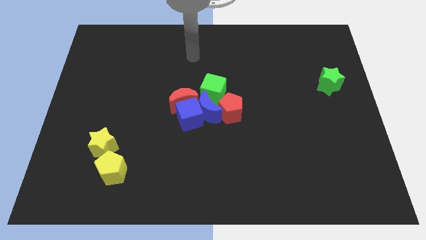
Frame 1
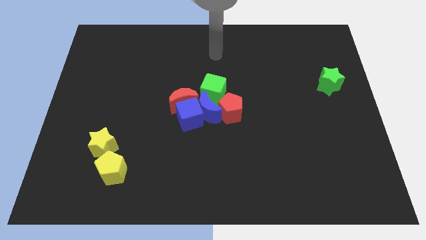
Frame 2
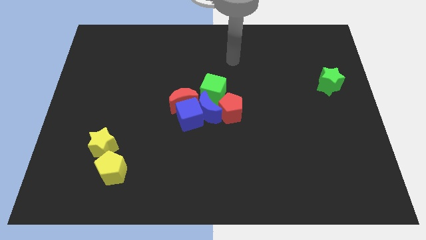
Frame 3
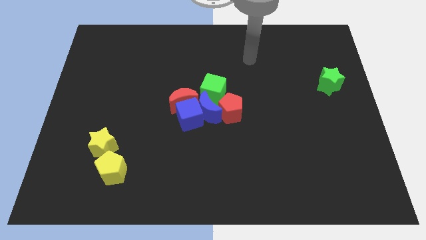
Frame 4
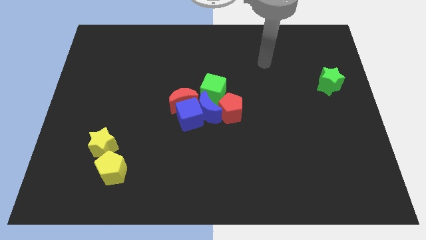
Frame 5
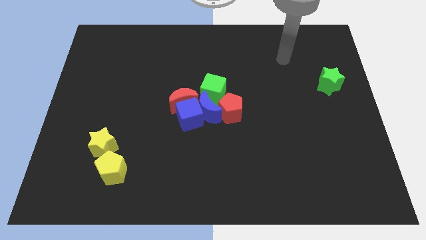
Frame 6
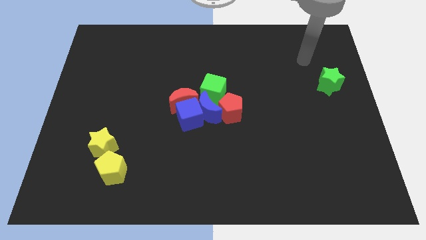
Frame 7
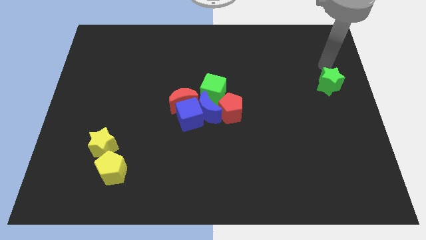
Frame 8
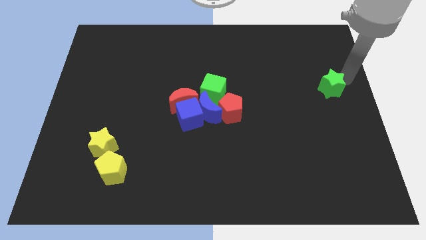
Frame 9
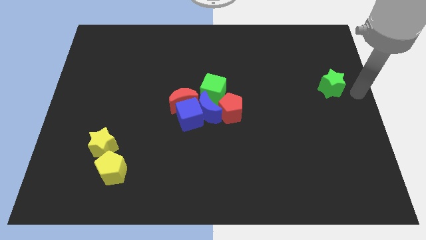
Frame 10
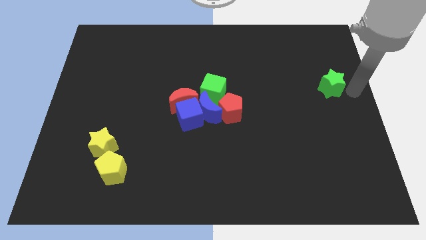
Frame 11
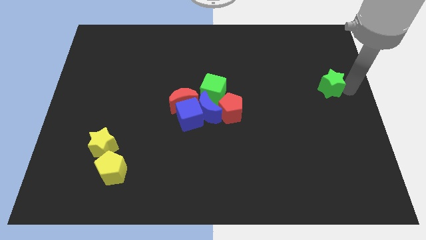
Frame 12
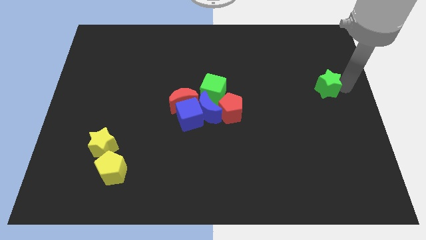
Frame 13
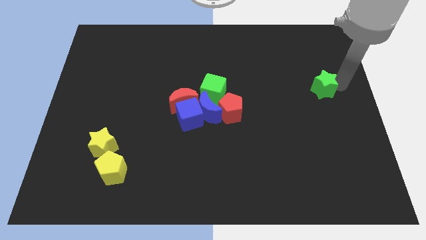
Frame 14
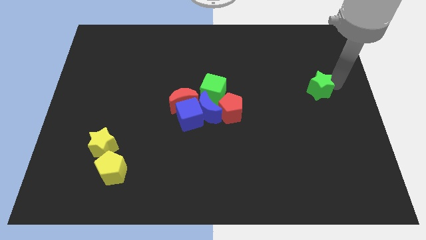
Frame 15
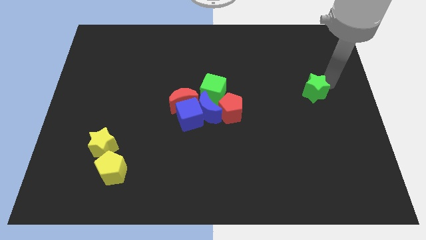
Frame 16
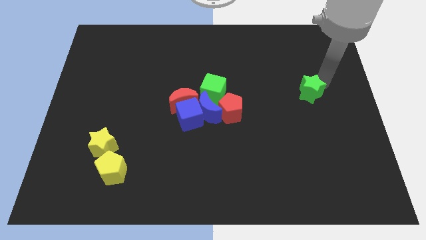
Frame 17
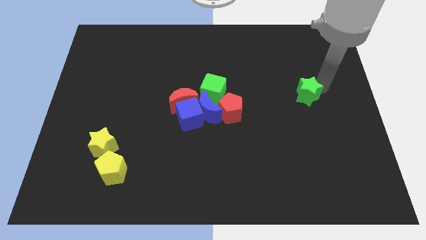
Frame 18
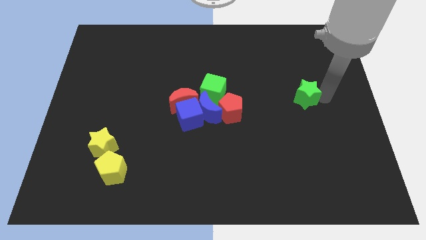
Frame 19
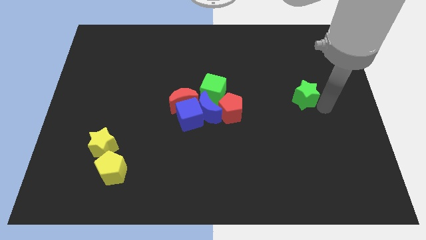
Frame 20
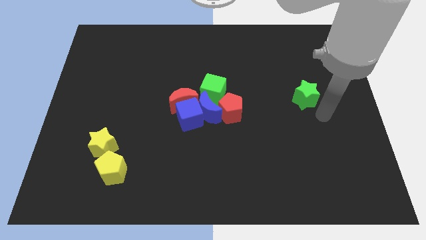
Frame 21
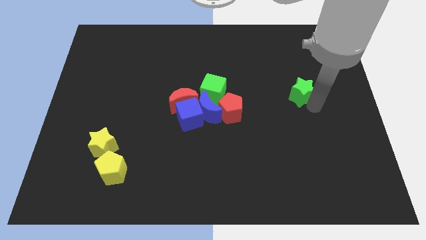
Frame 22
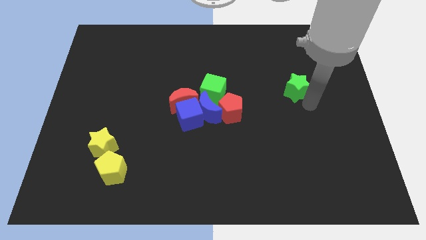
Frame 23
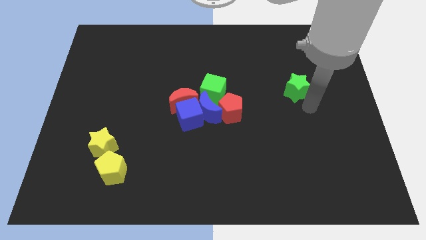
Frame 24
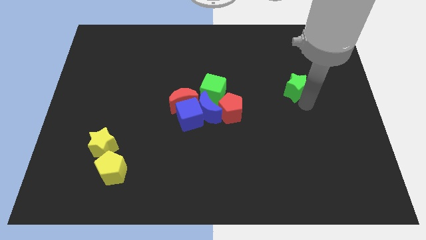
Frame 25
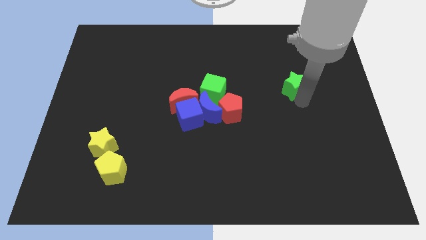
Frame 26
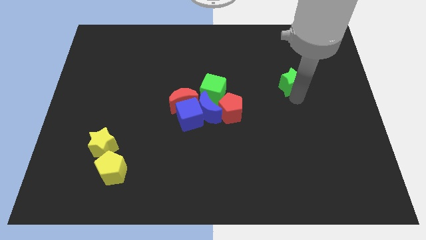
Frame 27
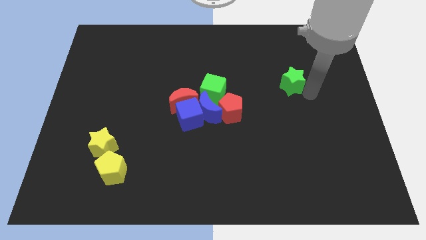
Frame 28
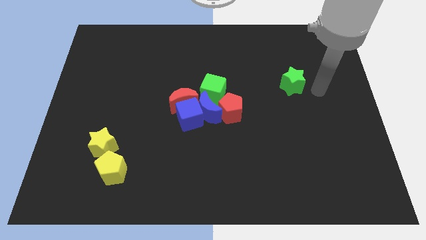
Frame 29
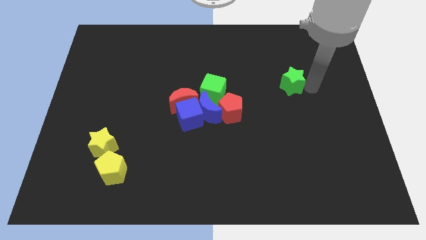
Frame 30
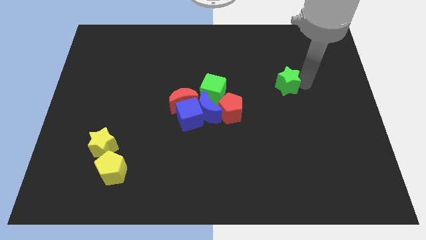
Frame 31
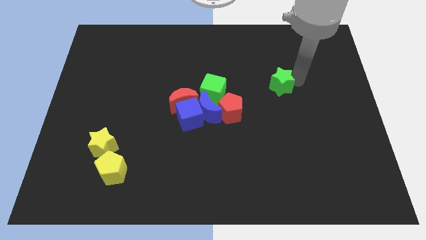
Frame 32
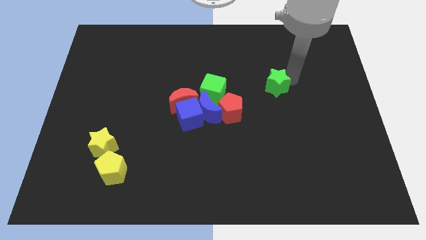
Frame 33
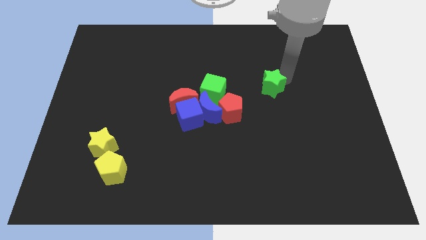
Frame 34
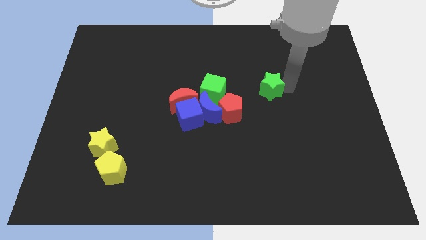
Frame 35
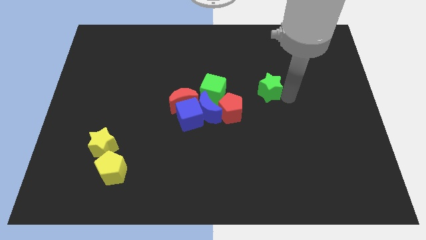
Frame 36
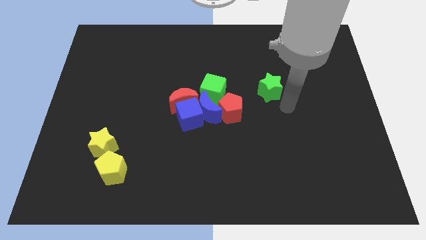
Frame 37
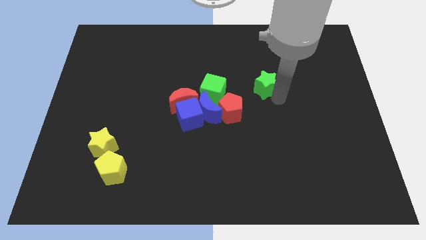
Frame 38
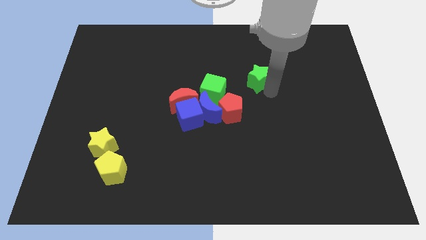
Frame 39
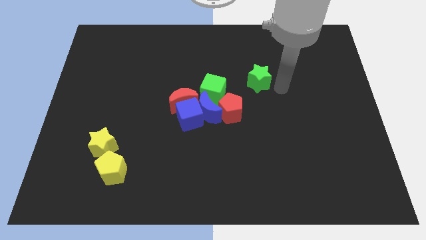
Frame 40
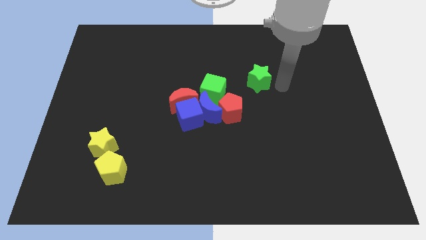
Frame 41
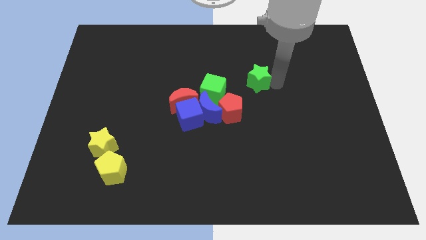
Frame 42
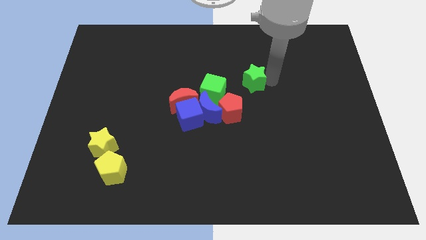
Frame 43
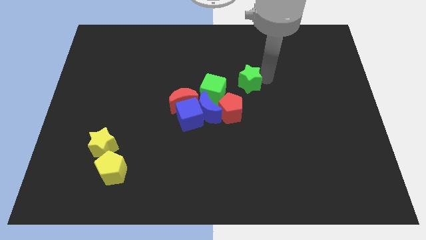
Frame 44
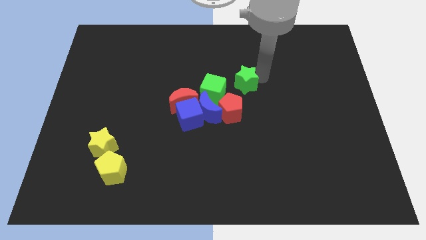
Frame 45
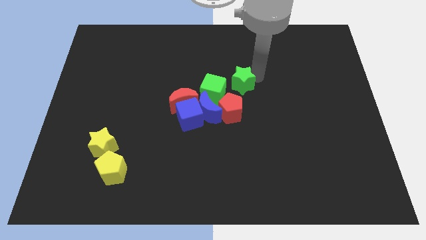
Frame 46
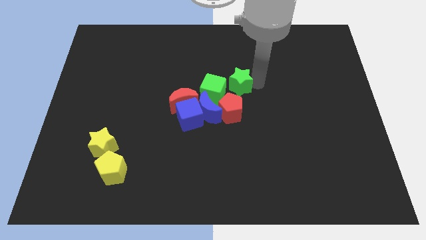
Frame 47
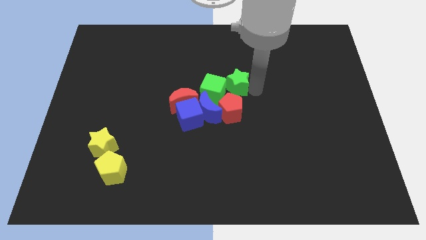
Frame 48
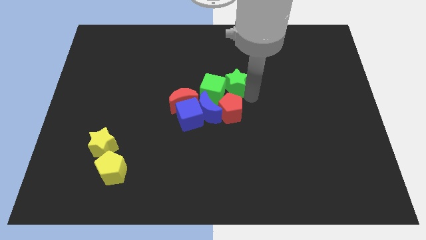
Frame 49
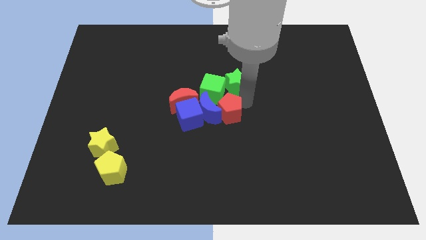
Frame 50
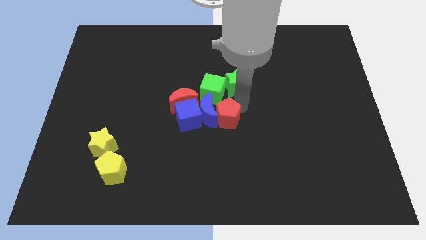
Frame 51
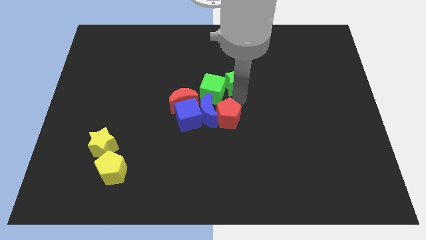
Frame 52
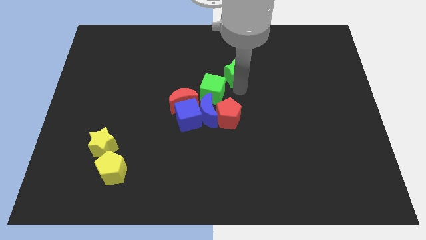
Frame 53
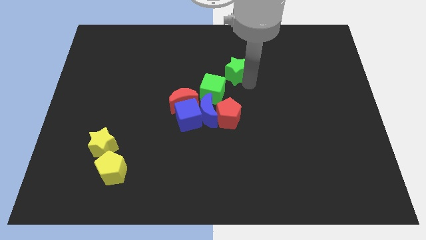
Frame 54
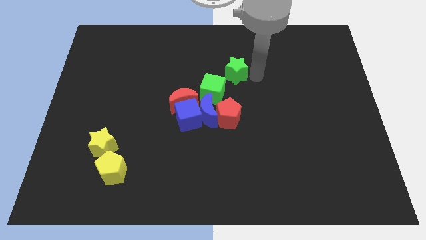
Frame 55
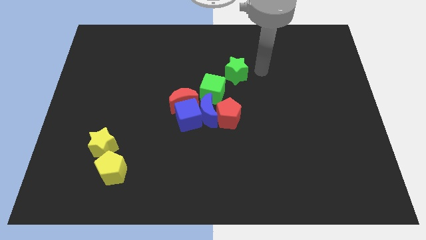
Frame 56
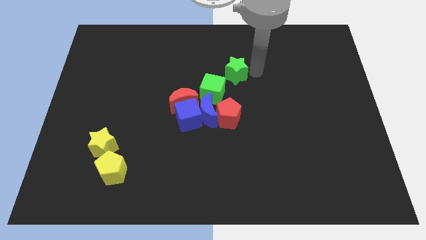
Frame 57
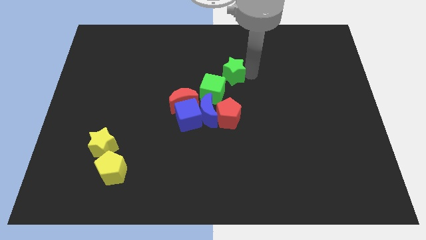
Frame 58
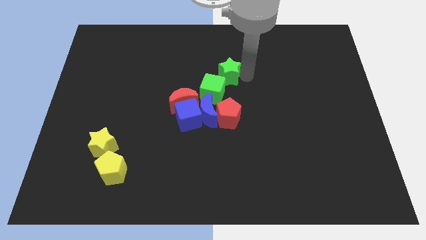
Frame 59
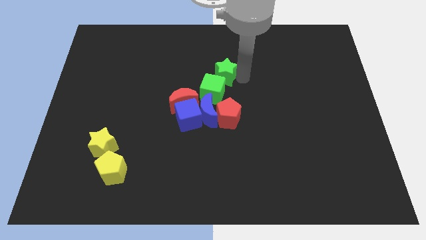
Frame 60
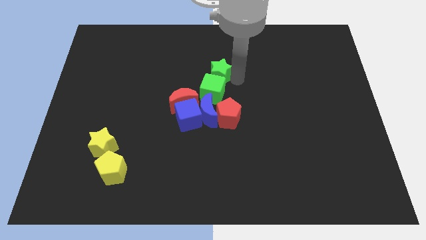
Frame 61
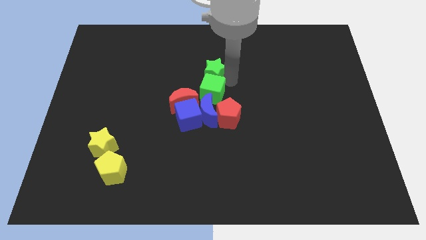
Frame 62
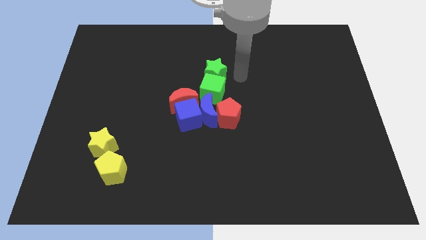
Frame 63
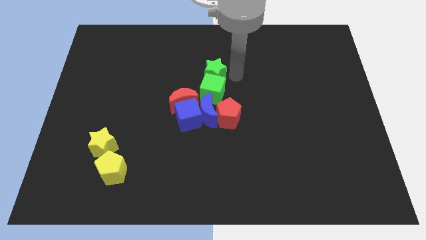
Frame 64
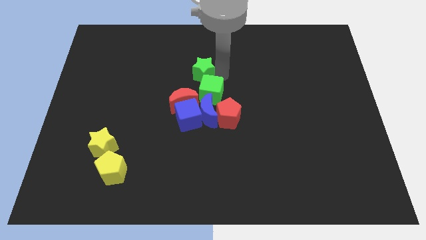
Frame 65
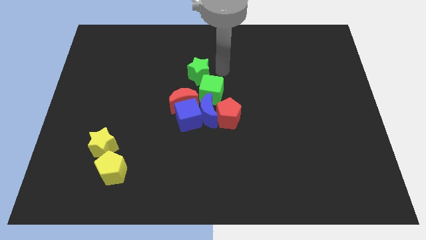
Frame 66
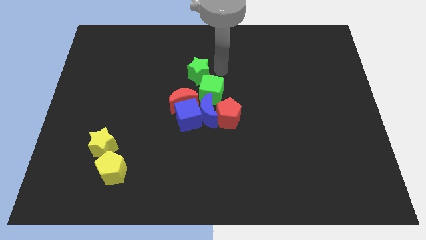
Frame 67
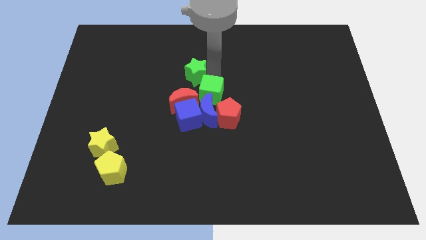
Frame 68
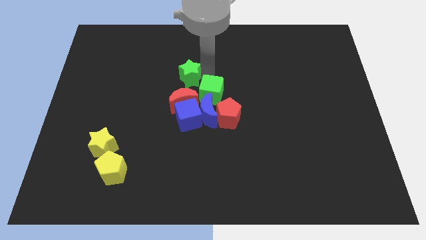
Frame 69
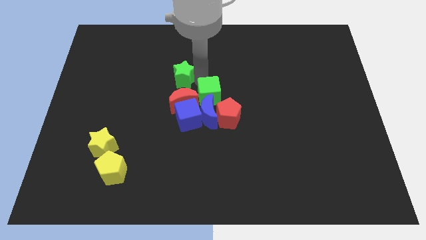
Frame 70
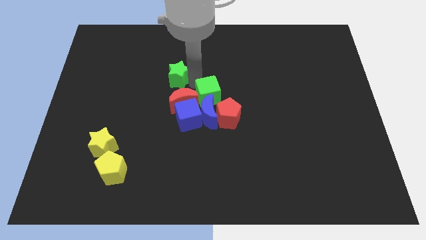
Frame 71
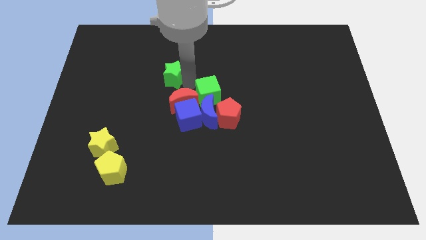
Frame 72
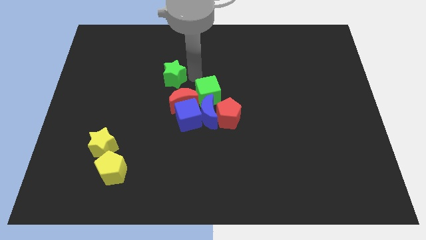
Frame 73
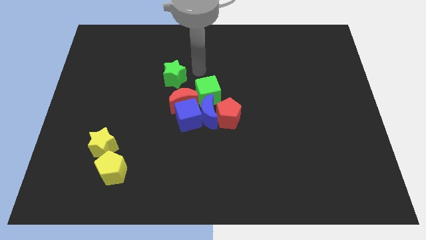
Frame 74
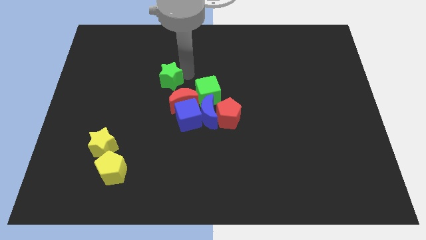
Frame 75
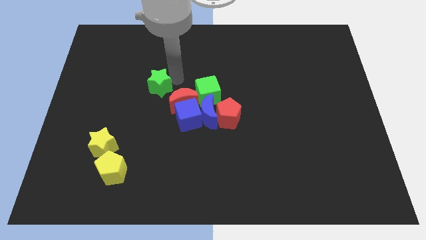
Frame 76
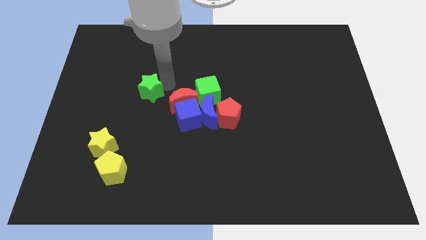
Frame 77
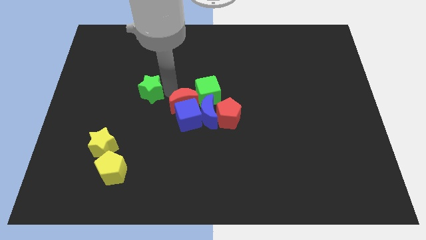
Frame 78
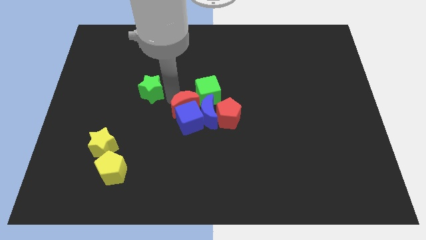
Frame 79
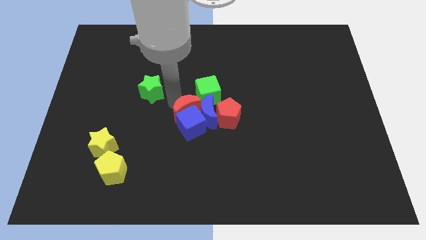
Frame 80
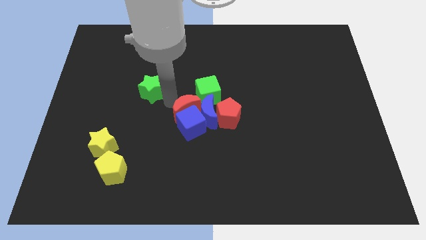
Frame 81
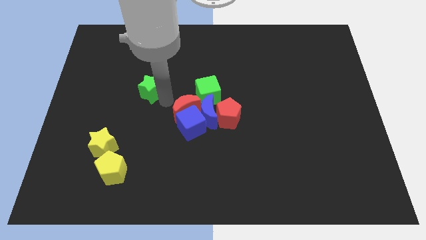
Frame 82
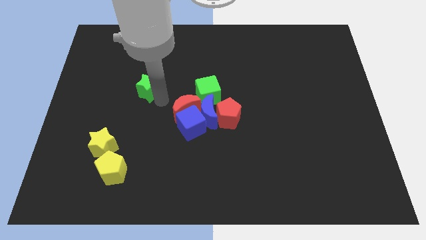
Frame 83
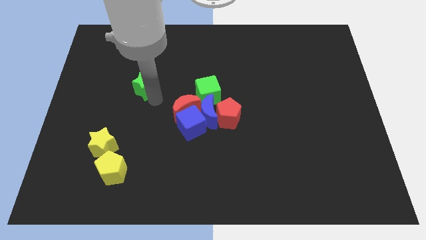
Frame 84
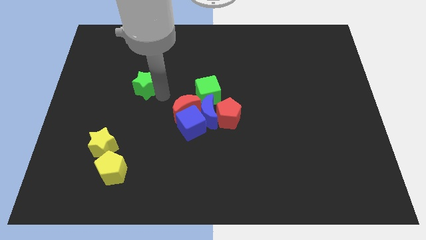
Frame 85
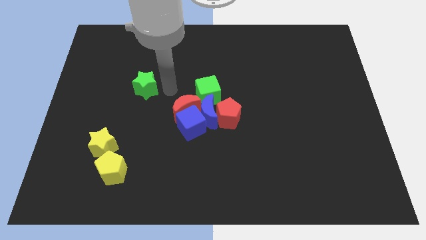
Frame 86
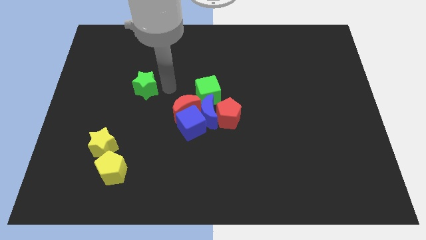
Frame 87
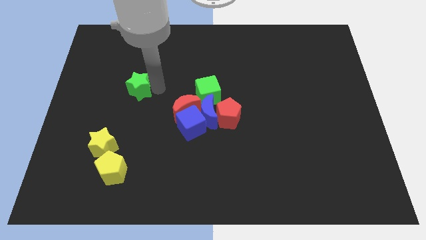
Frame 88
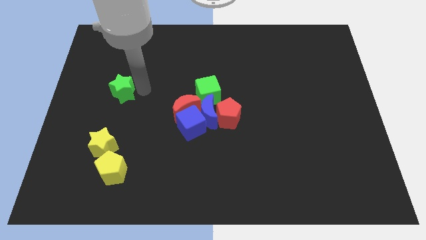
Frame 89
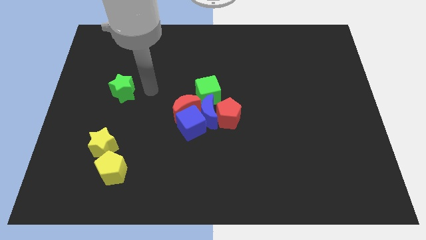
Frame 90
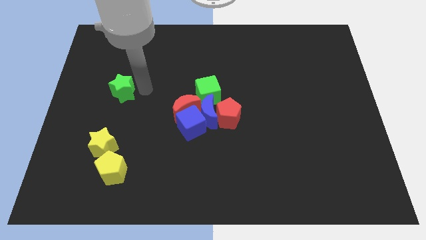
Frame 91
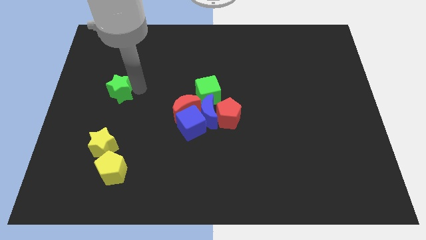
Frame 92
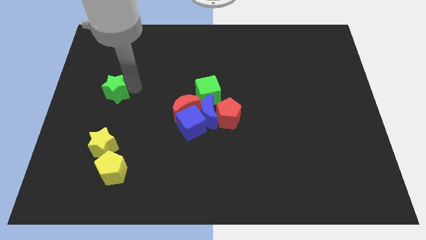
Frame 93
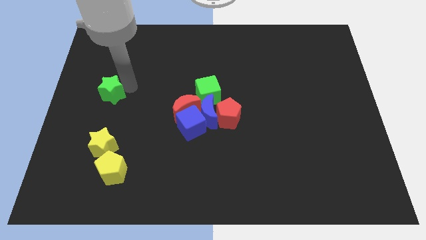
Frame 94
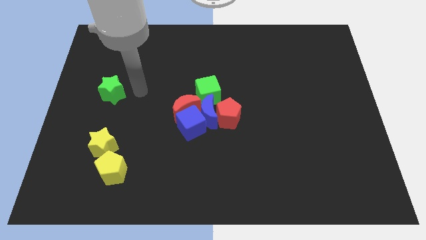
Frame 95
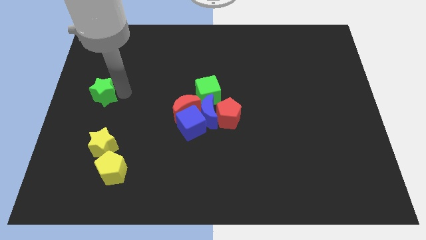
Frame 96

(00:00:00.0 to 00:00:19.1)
move the green star to the left side of the board
